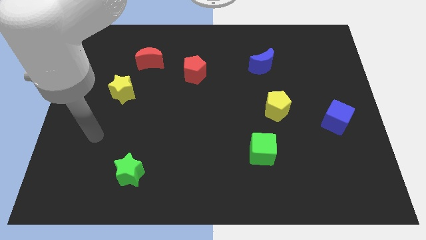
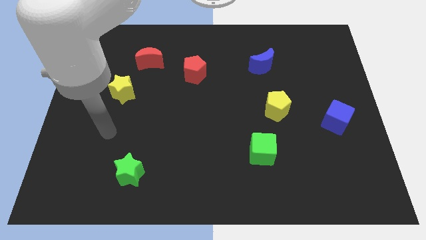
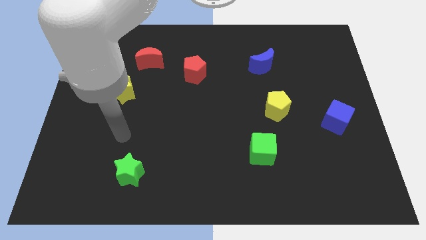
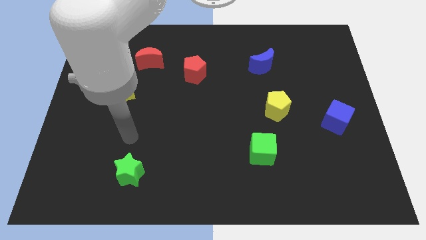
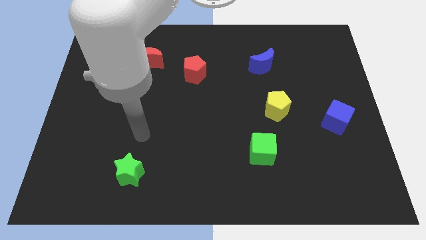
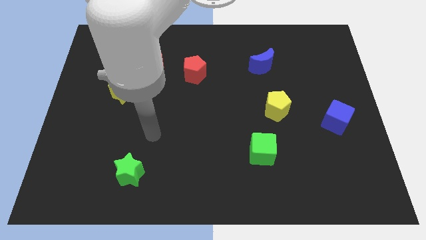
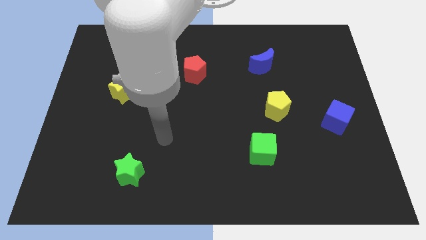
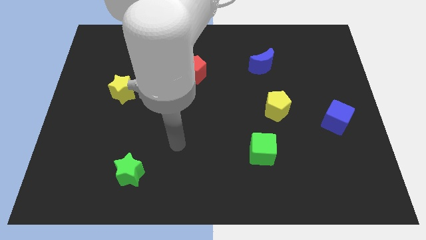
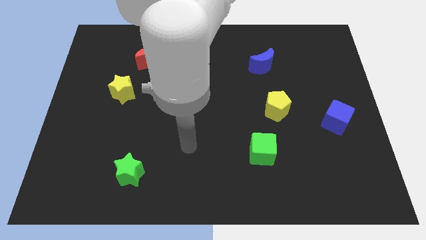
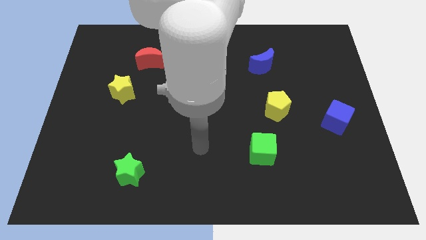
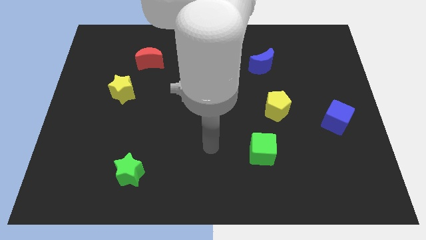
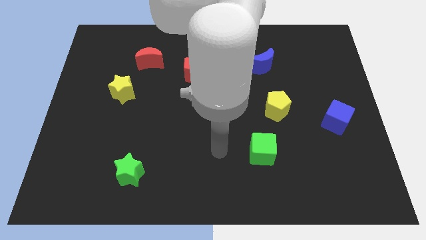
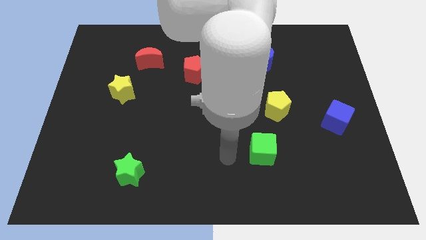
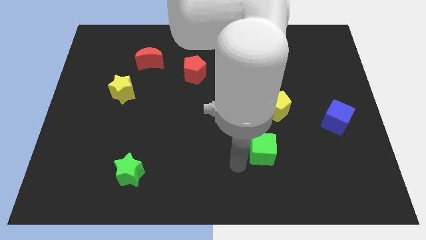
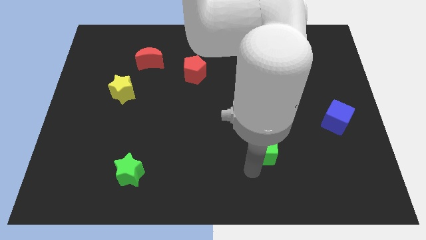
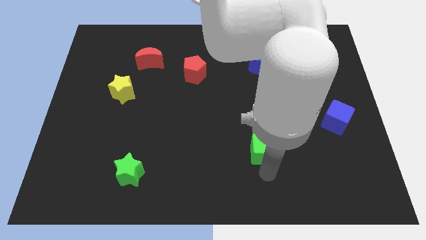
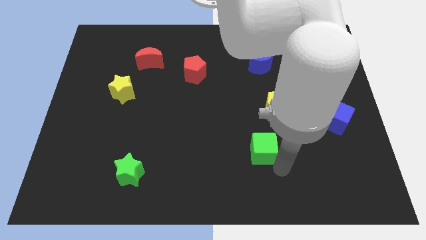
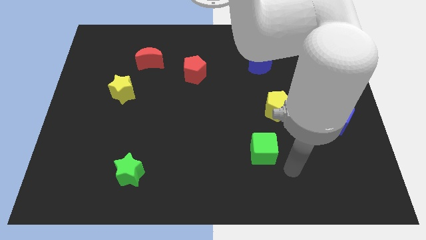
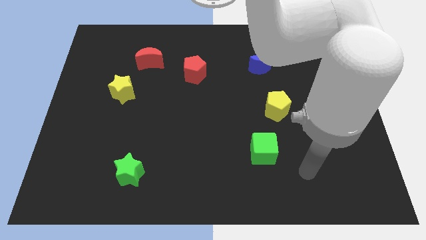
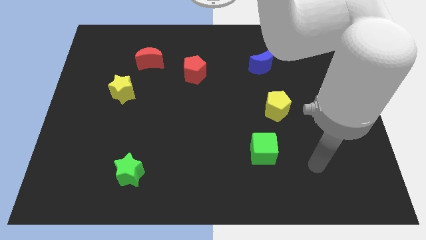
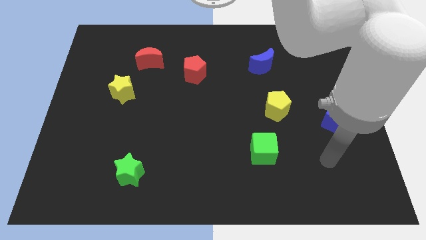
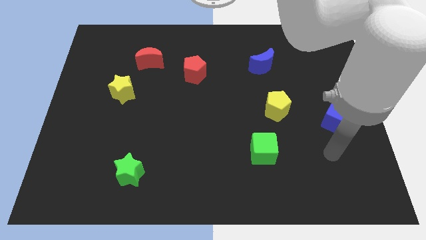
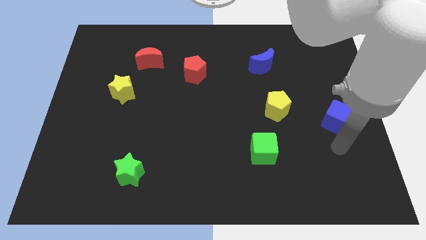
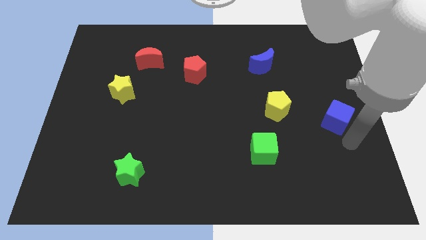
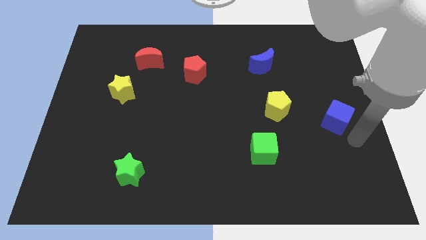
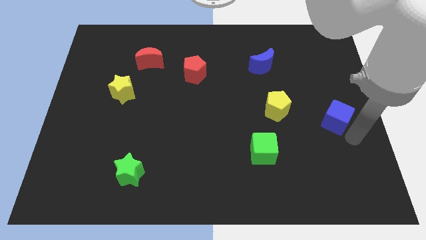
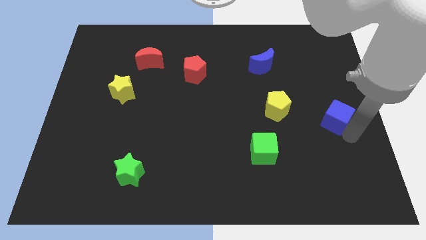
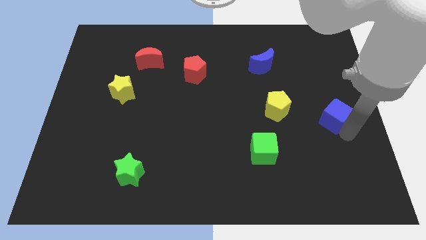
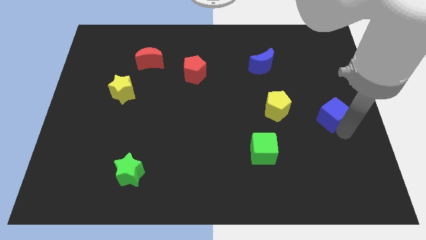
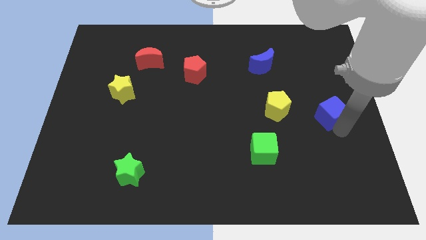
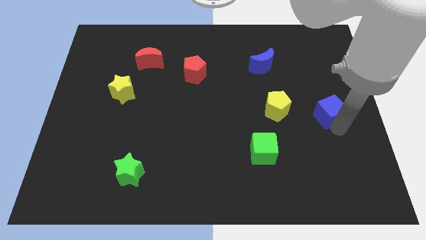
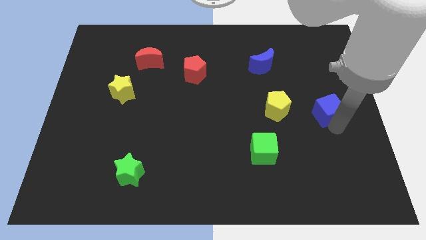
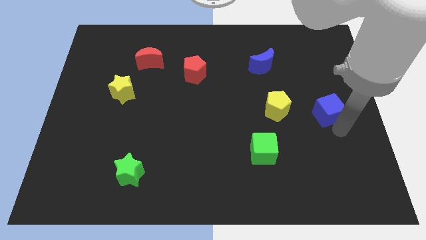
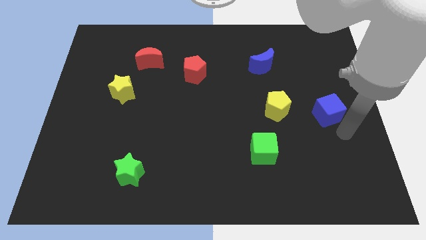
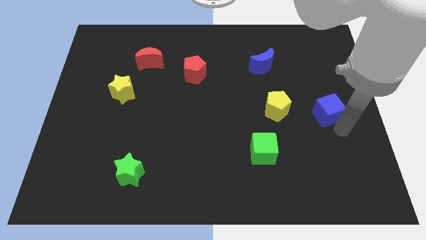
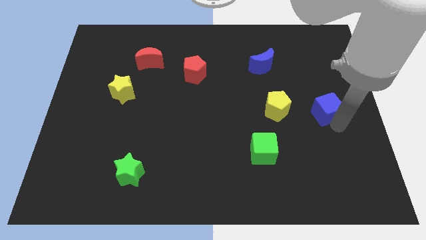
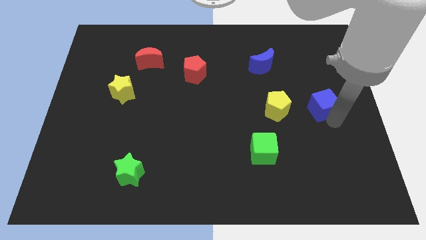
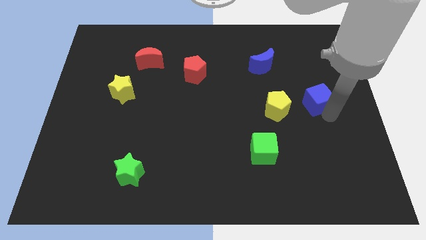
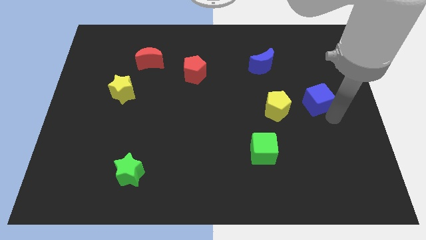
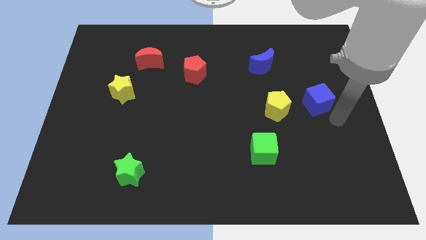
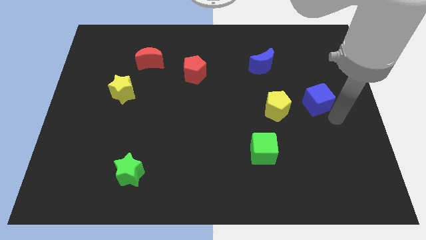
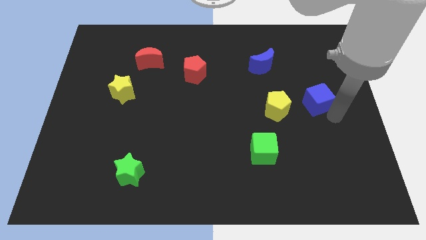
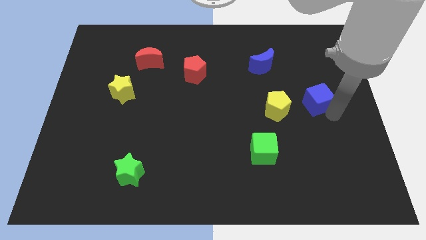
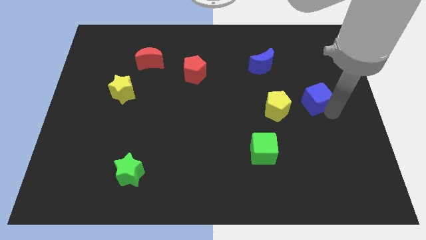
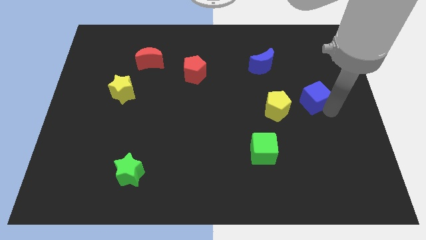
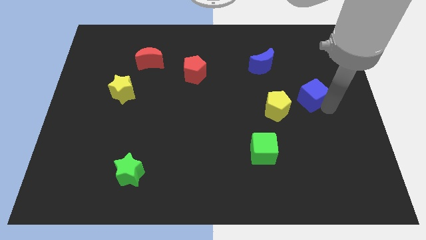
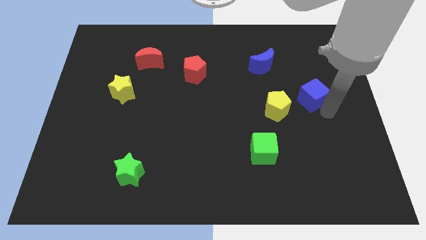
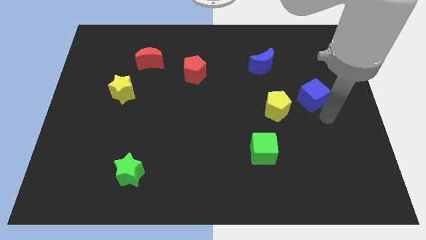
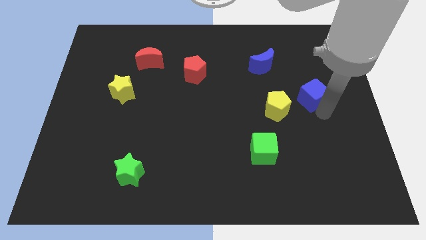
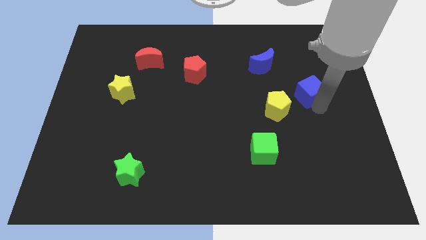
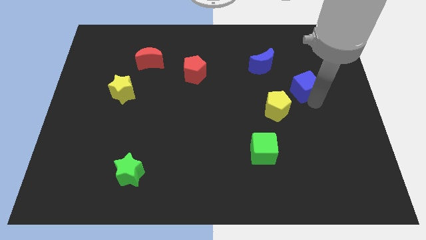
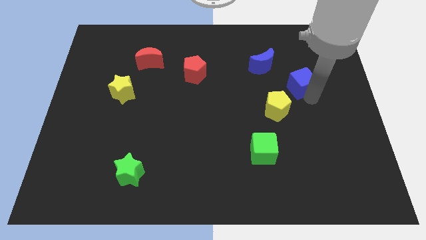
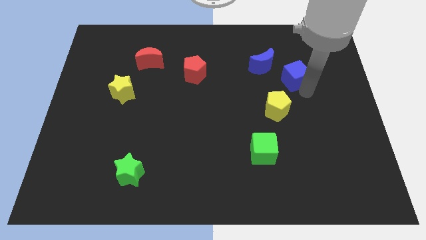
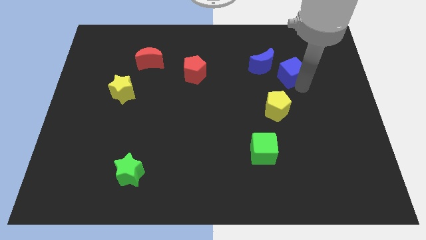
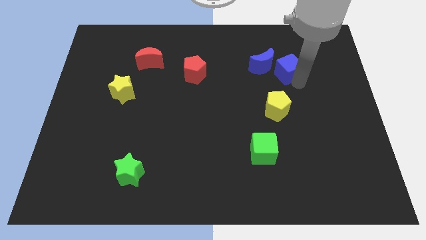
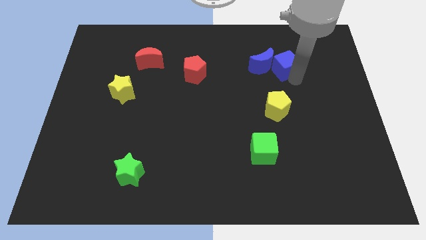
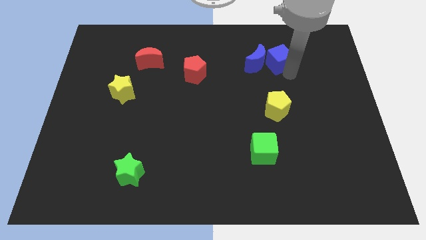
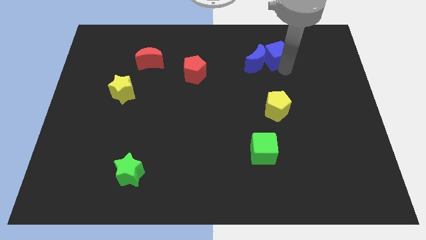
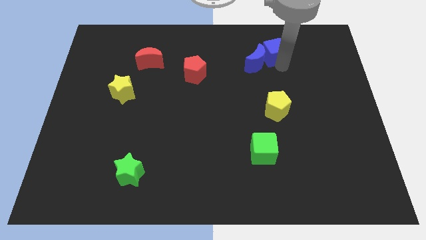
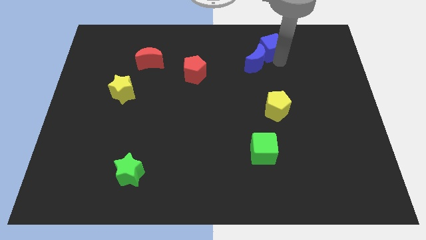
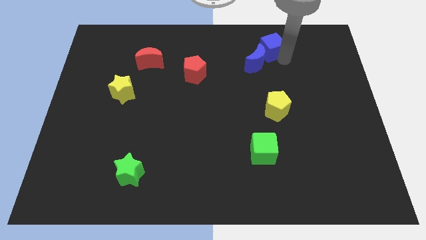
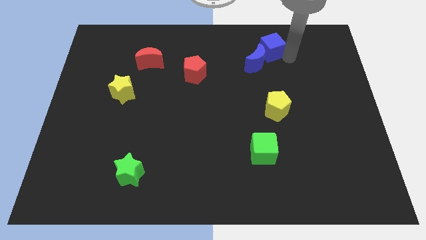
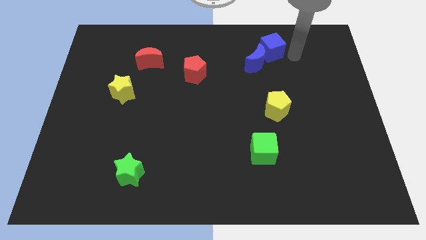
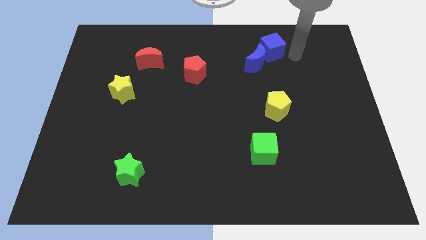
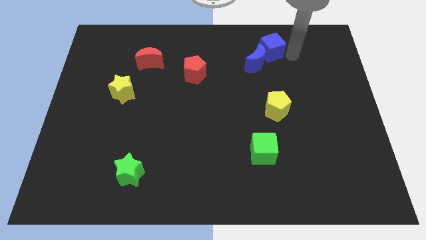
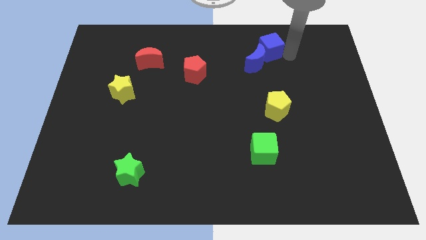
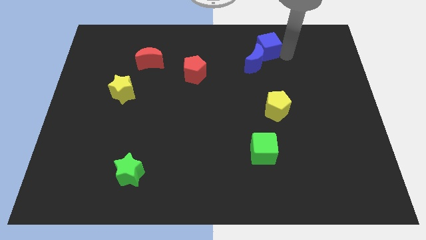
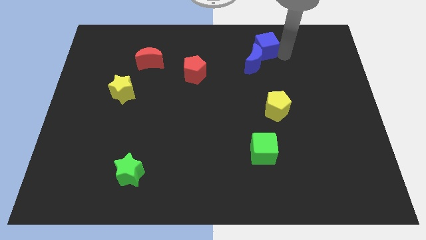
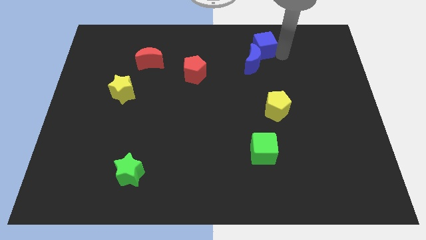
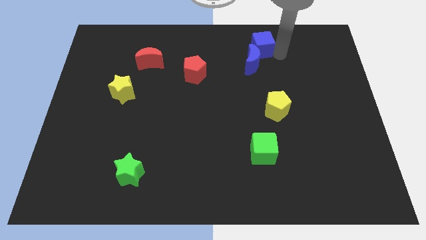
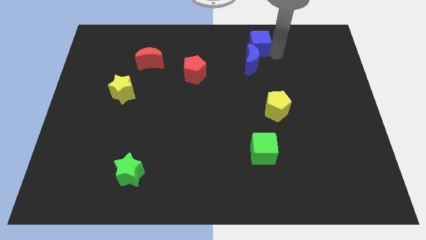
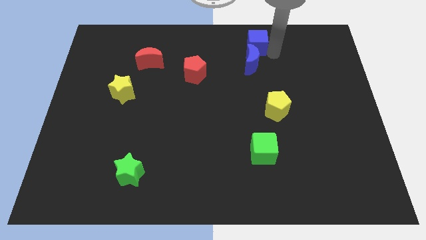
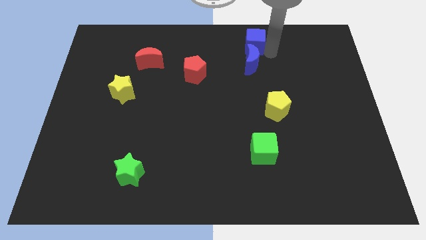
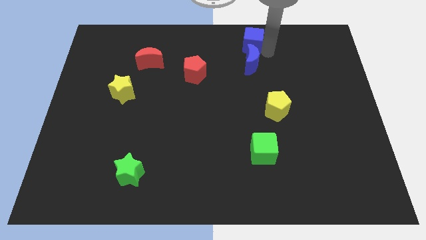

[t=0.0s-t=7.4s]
push the blue cube to the towards your base
